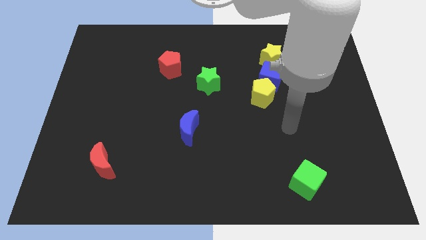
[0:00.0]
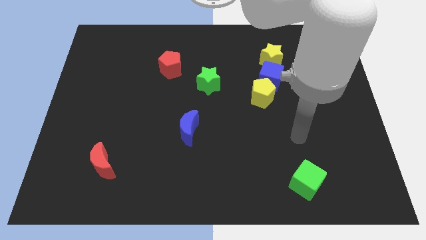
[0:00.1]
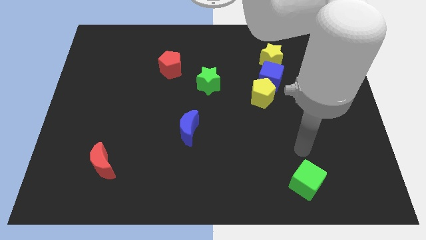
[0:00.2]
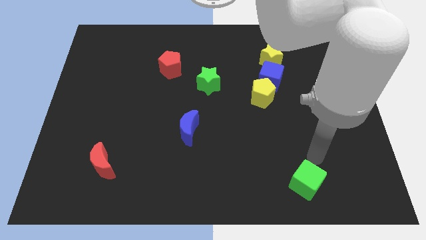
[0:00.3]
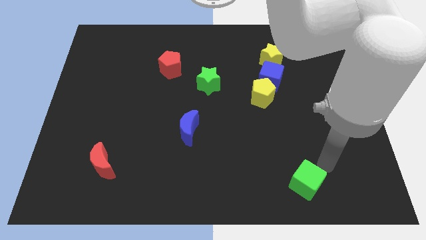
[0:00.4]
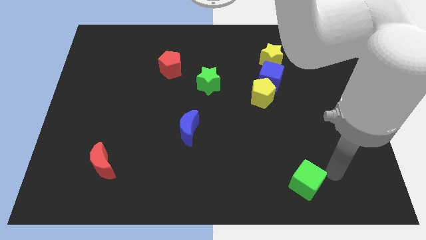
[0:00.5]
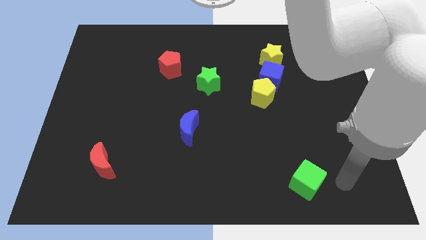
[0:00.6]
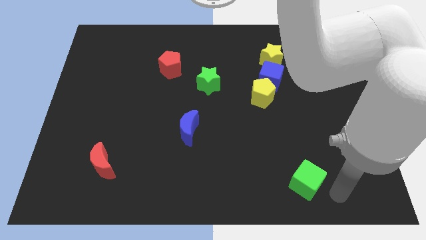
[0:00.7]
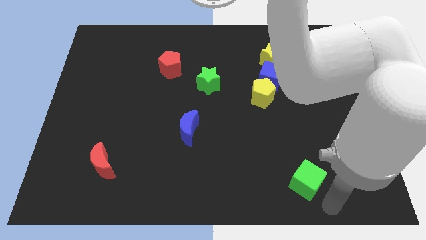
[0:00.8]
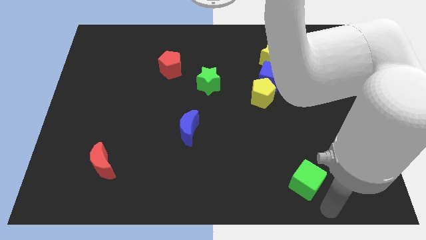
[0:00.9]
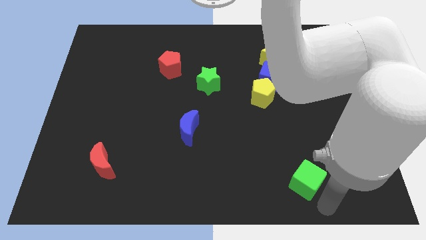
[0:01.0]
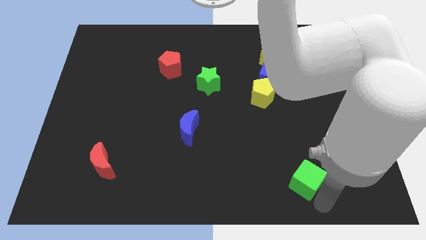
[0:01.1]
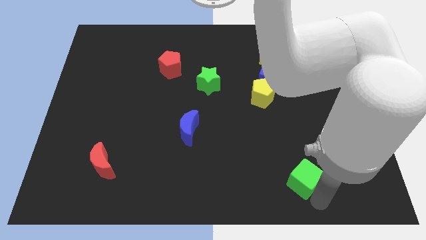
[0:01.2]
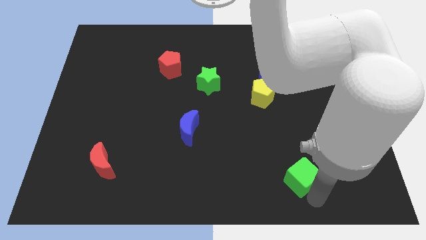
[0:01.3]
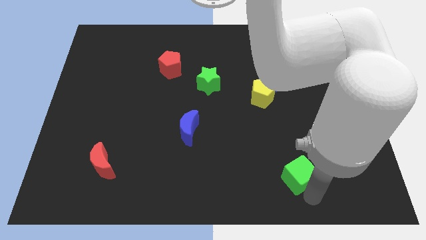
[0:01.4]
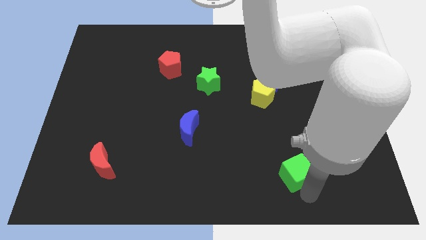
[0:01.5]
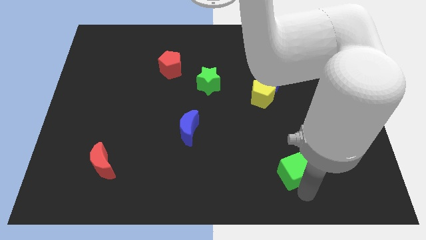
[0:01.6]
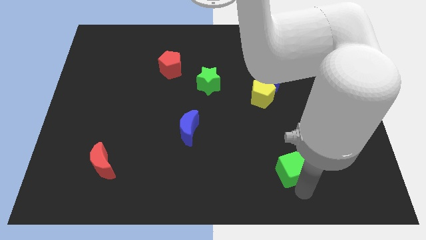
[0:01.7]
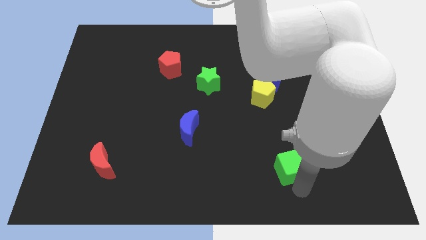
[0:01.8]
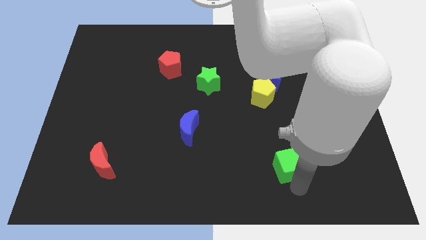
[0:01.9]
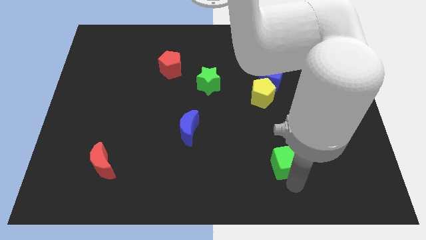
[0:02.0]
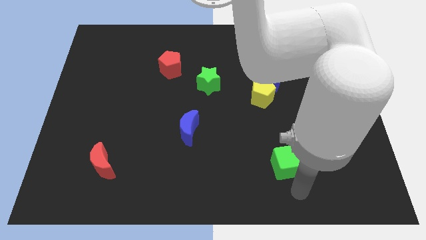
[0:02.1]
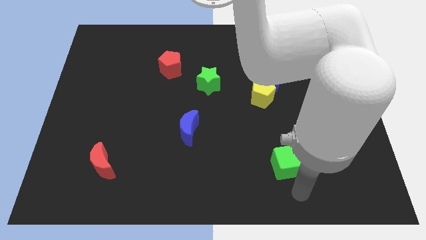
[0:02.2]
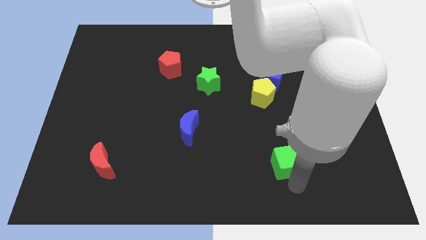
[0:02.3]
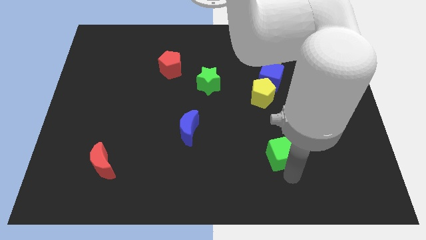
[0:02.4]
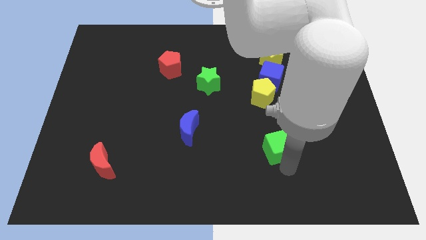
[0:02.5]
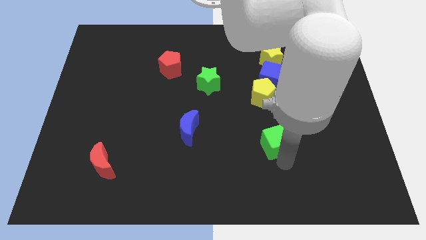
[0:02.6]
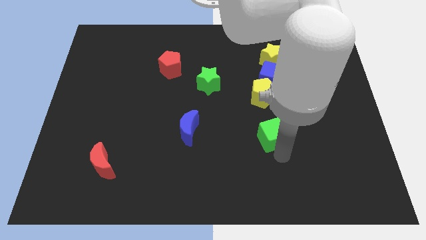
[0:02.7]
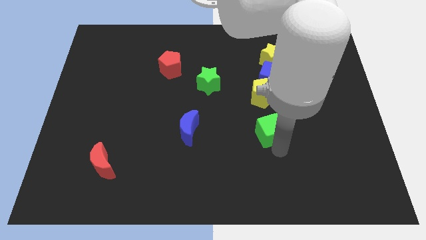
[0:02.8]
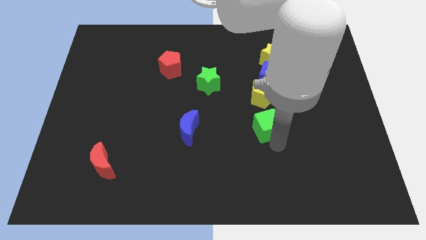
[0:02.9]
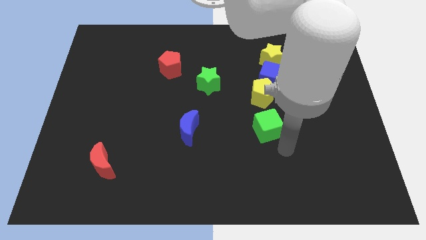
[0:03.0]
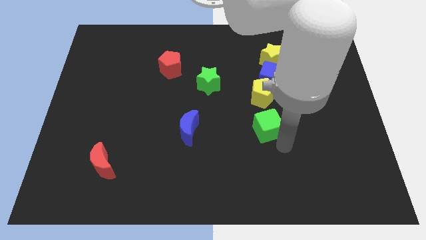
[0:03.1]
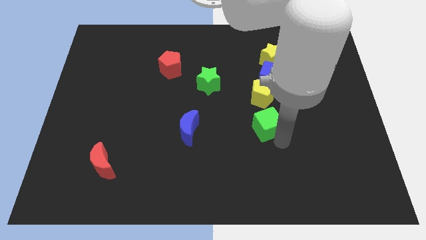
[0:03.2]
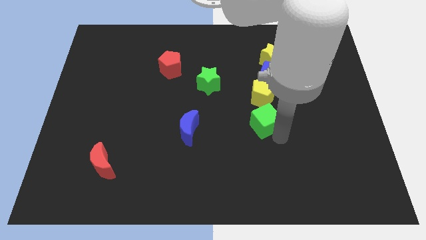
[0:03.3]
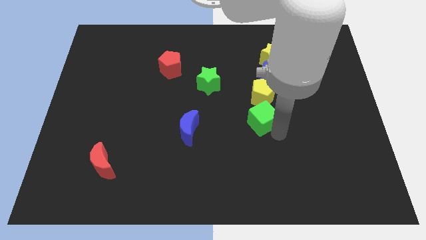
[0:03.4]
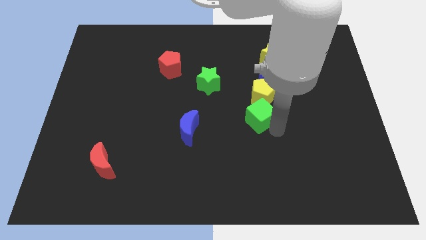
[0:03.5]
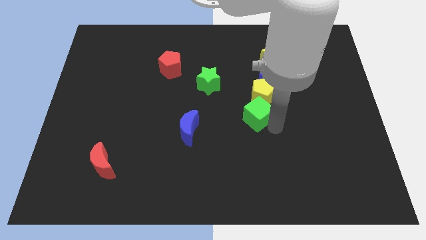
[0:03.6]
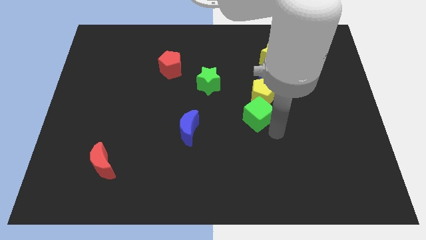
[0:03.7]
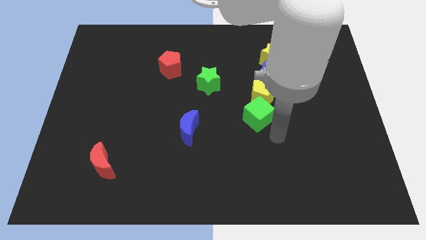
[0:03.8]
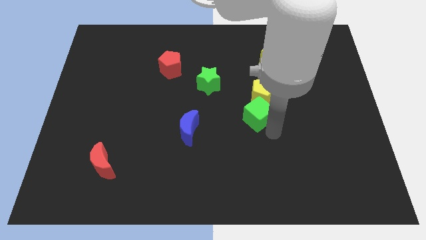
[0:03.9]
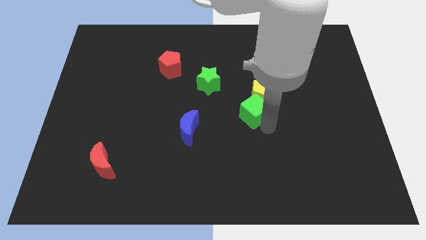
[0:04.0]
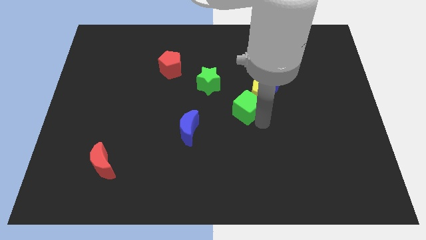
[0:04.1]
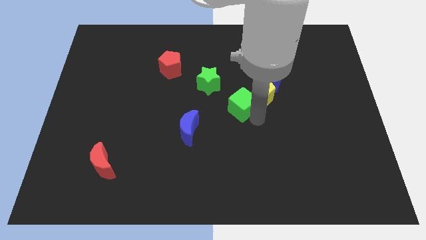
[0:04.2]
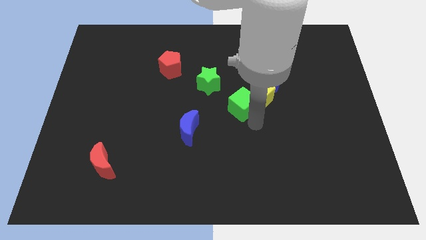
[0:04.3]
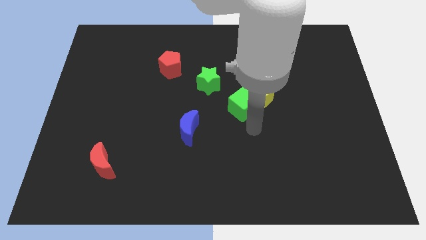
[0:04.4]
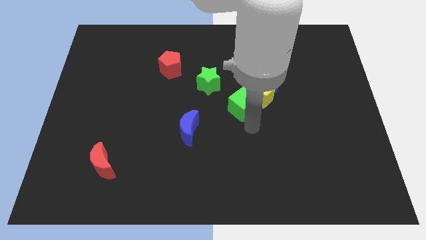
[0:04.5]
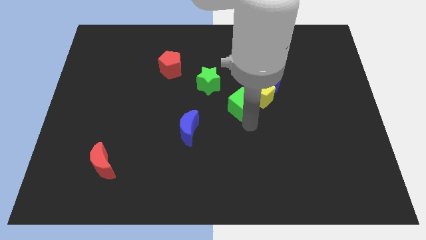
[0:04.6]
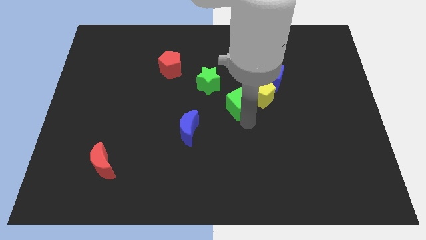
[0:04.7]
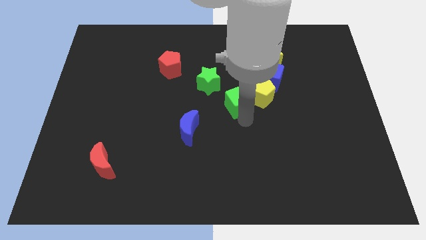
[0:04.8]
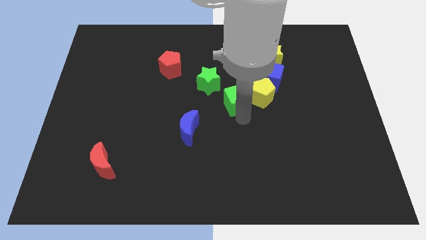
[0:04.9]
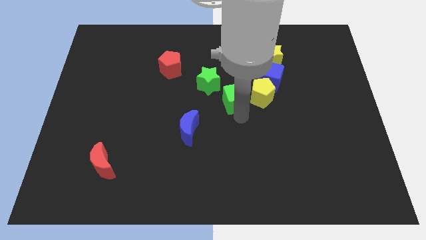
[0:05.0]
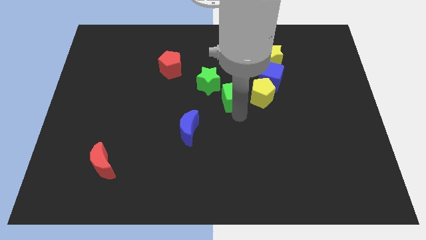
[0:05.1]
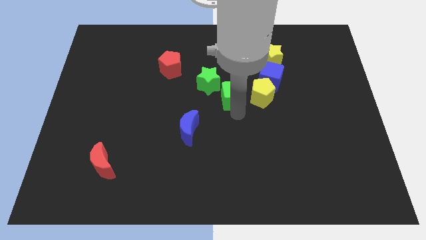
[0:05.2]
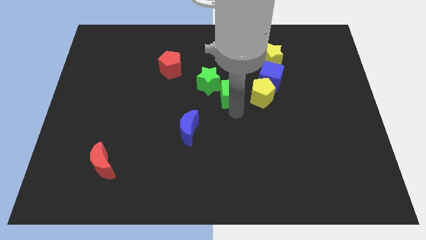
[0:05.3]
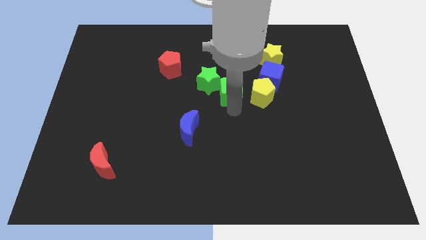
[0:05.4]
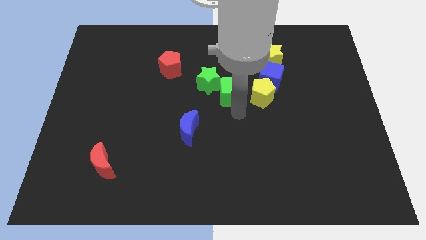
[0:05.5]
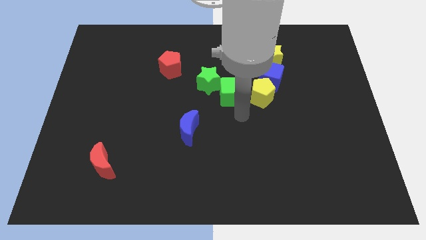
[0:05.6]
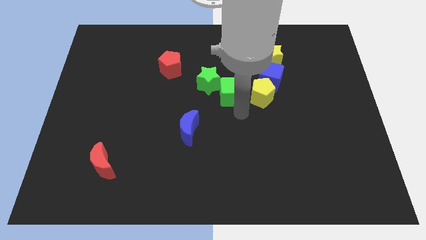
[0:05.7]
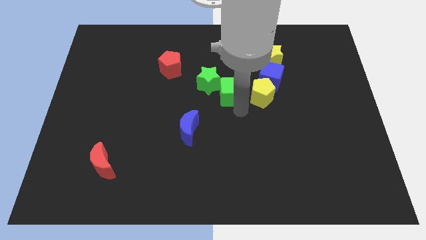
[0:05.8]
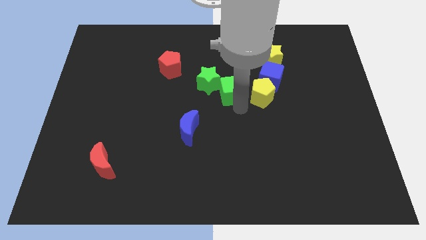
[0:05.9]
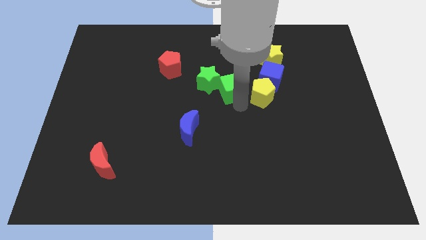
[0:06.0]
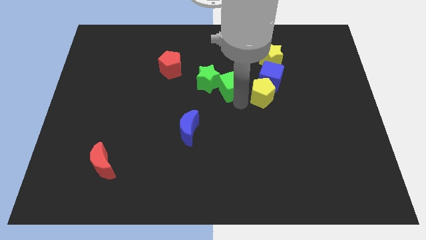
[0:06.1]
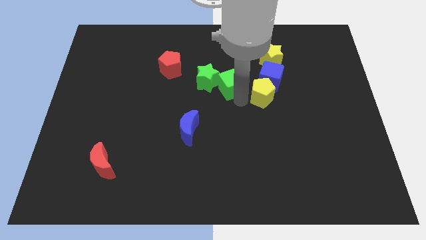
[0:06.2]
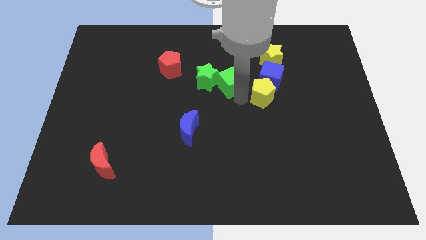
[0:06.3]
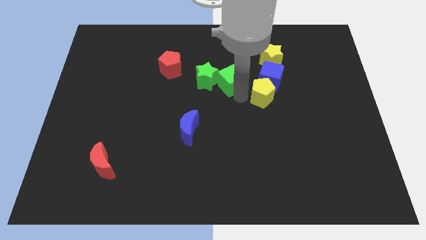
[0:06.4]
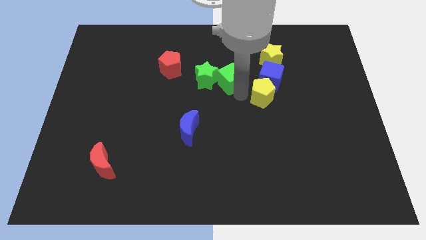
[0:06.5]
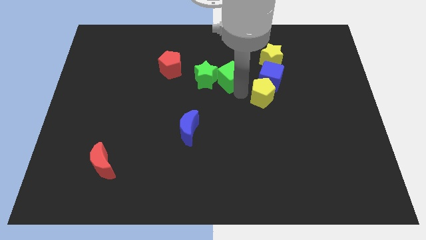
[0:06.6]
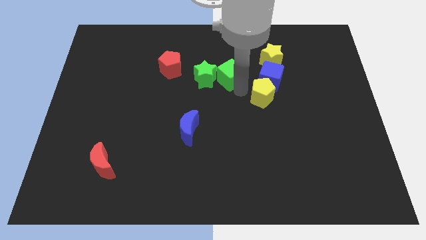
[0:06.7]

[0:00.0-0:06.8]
slide the green cube right of the red pentagon
